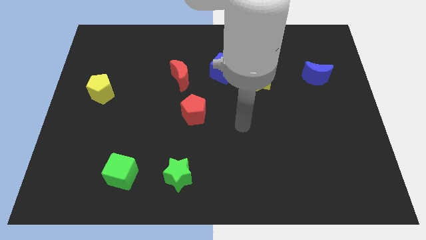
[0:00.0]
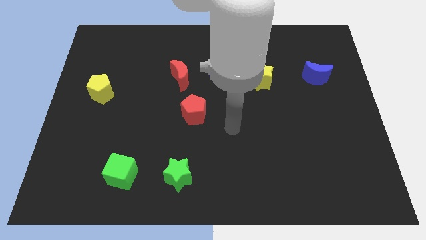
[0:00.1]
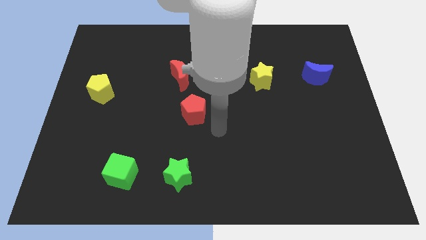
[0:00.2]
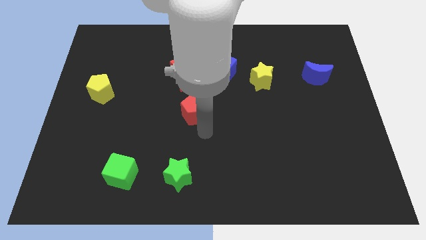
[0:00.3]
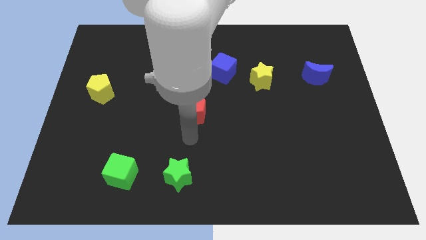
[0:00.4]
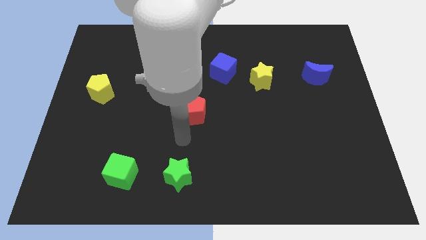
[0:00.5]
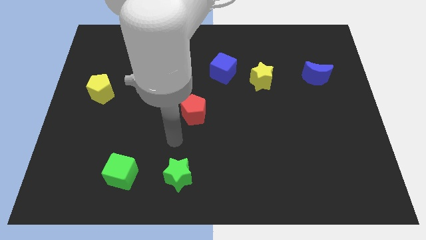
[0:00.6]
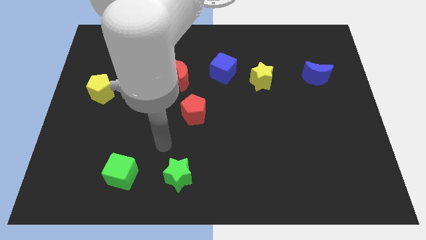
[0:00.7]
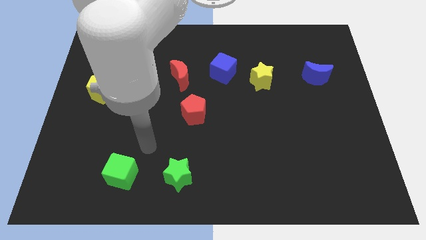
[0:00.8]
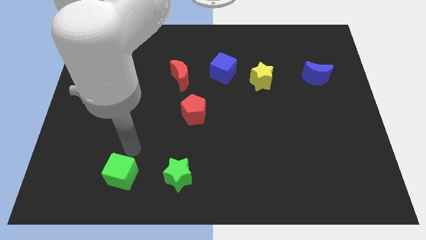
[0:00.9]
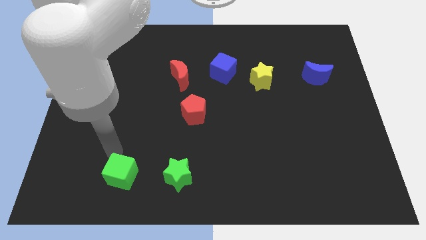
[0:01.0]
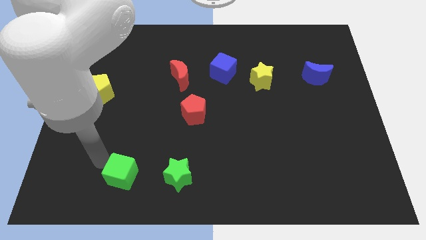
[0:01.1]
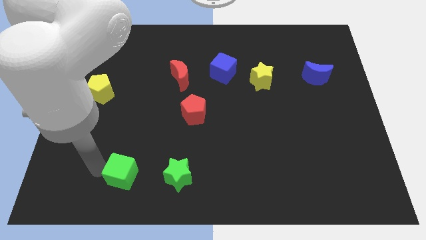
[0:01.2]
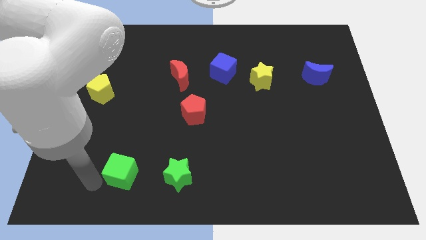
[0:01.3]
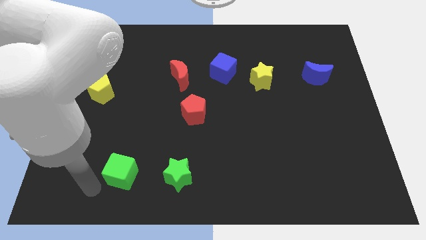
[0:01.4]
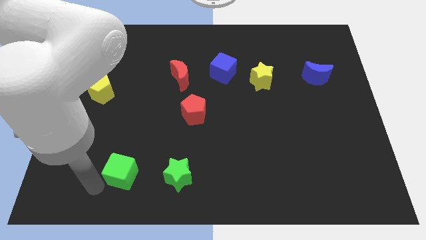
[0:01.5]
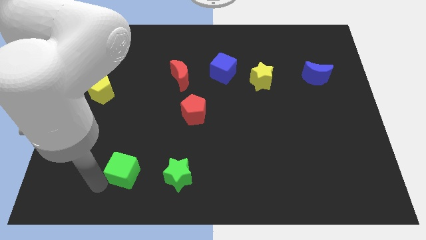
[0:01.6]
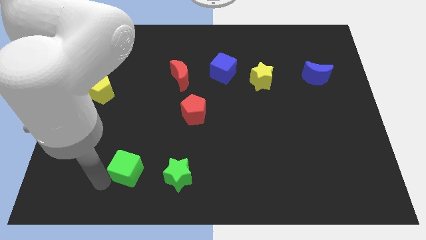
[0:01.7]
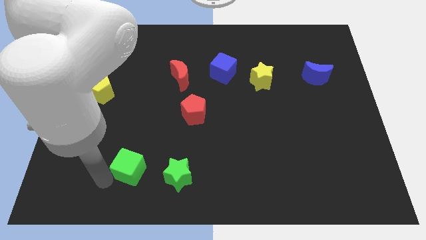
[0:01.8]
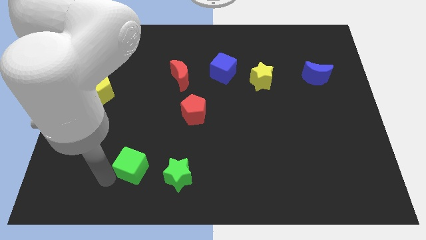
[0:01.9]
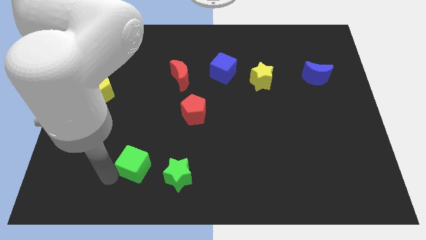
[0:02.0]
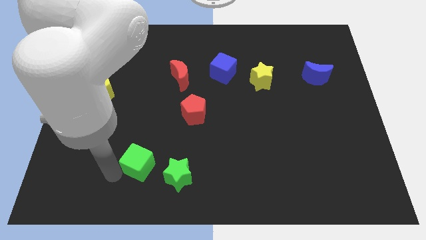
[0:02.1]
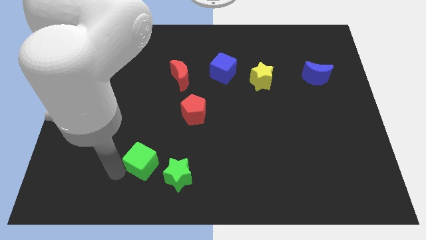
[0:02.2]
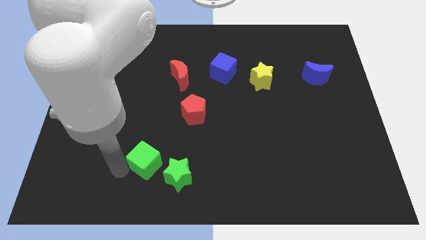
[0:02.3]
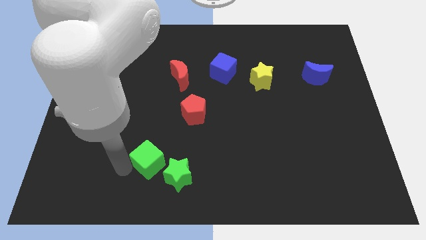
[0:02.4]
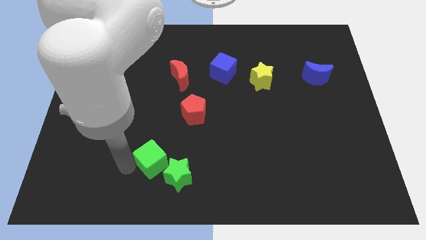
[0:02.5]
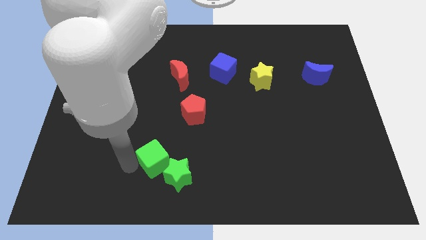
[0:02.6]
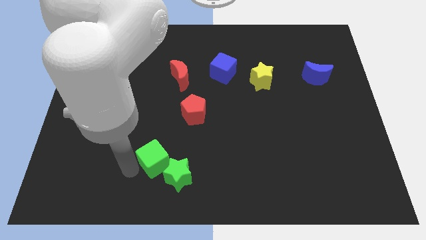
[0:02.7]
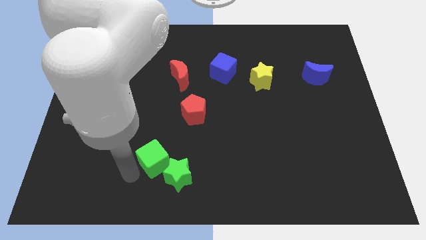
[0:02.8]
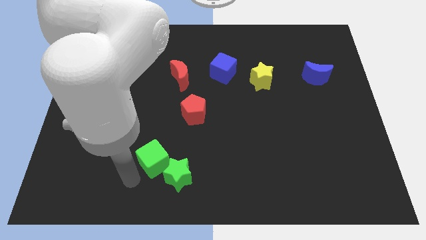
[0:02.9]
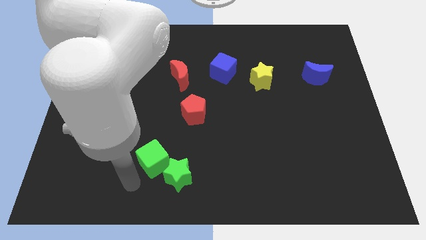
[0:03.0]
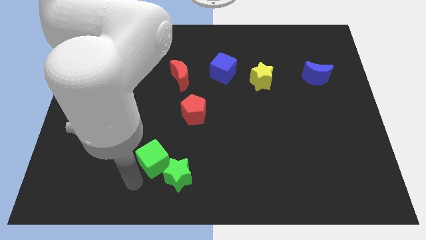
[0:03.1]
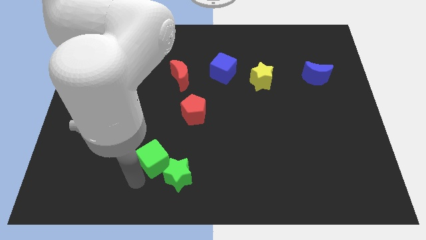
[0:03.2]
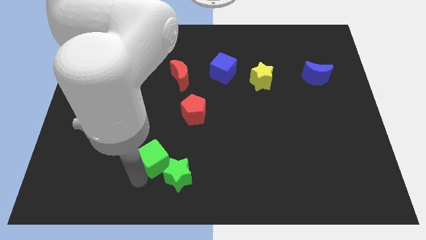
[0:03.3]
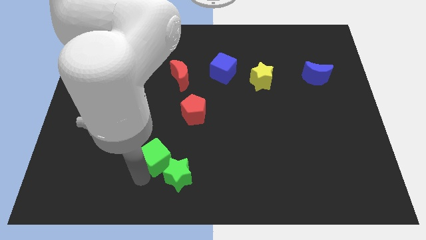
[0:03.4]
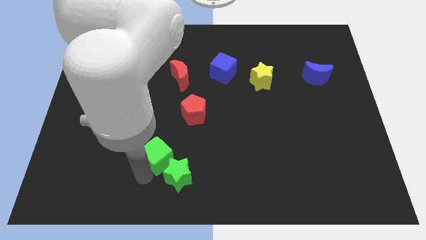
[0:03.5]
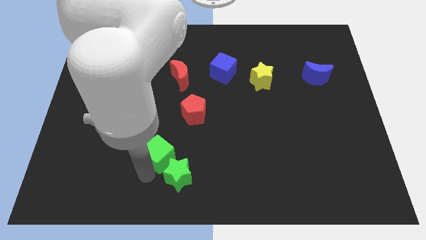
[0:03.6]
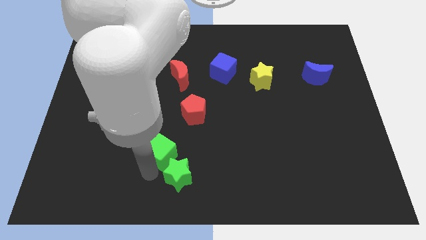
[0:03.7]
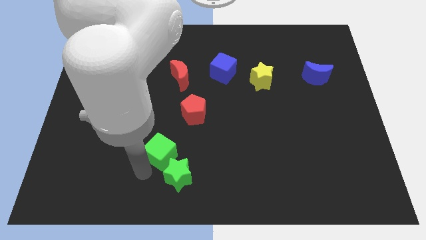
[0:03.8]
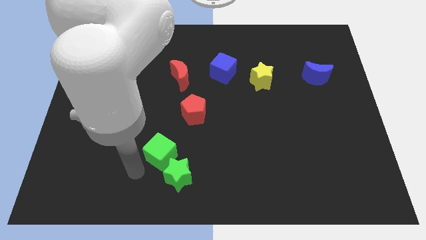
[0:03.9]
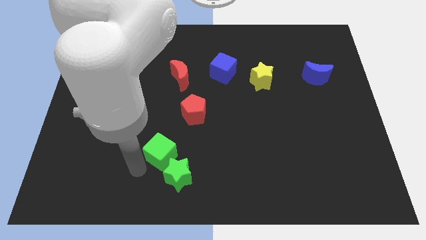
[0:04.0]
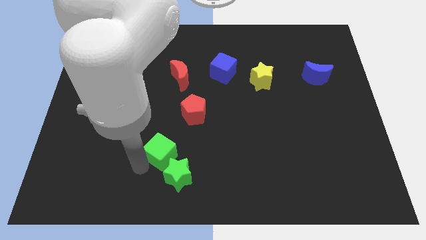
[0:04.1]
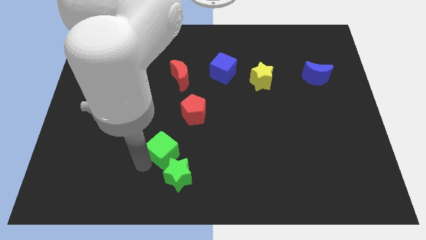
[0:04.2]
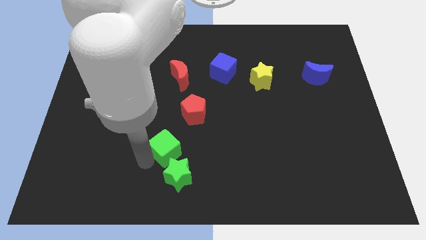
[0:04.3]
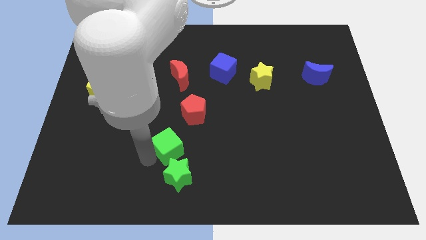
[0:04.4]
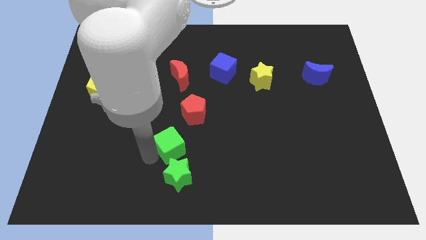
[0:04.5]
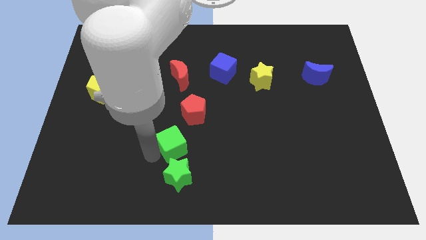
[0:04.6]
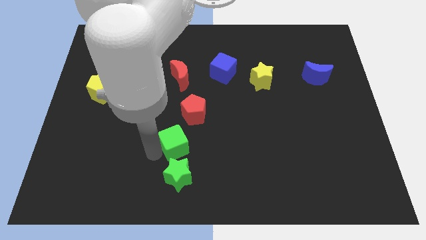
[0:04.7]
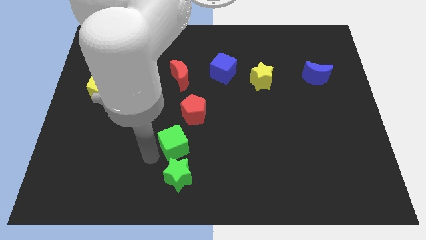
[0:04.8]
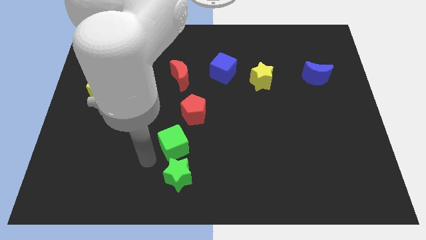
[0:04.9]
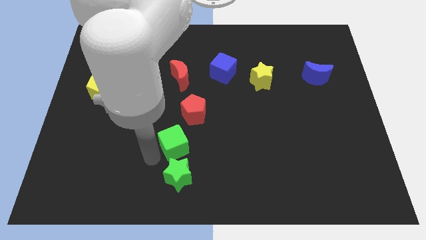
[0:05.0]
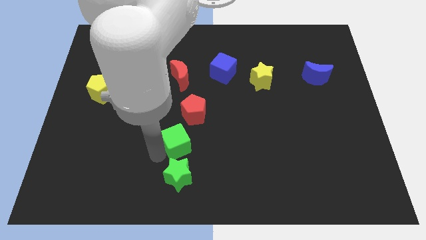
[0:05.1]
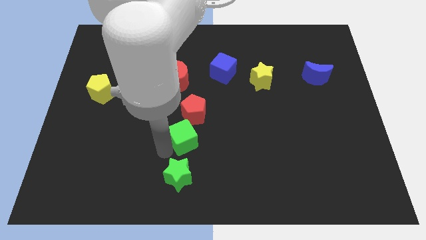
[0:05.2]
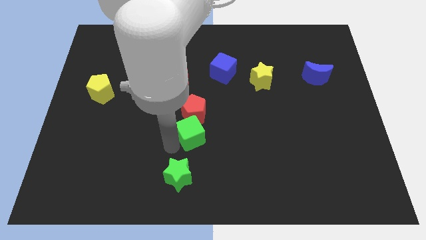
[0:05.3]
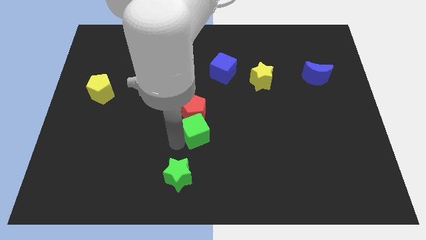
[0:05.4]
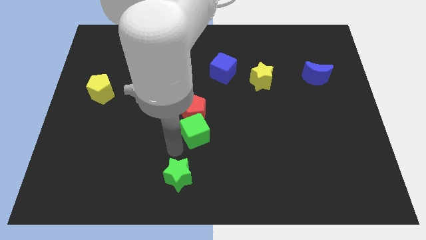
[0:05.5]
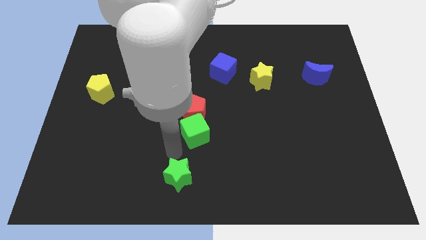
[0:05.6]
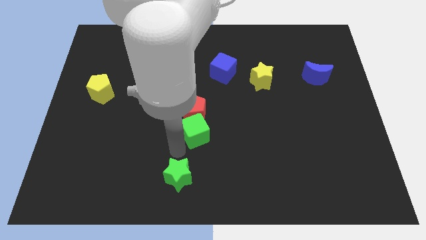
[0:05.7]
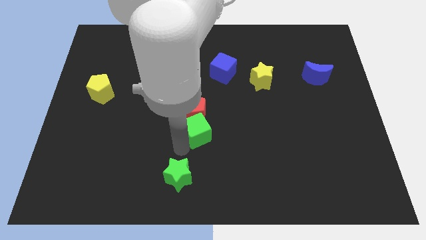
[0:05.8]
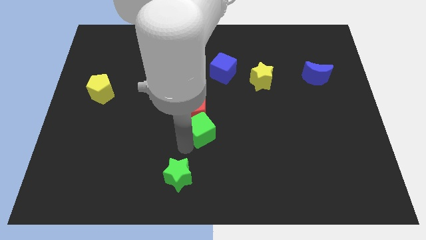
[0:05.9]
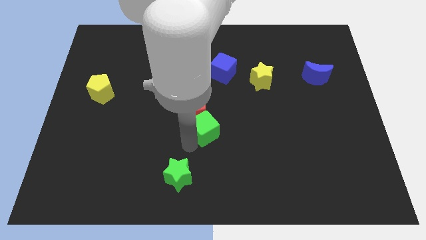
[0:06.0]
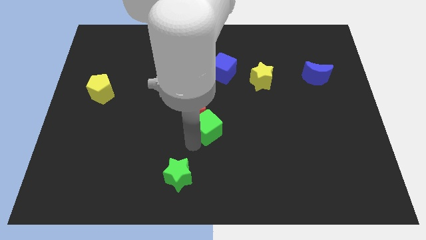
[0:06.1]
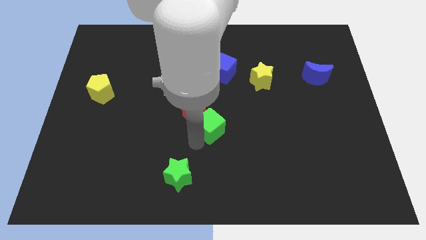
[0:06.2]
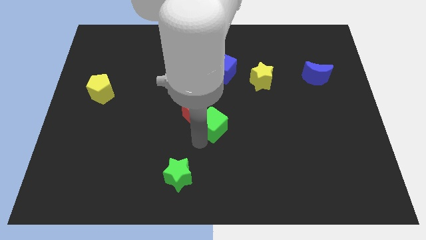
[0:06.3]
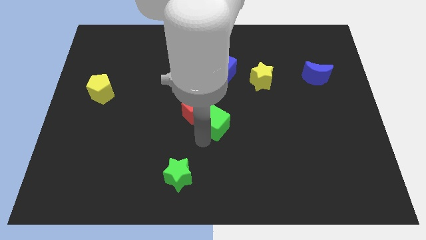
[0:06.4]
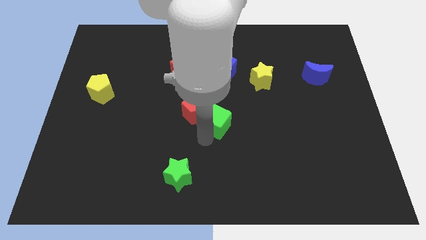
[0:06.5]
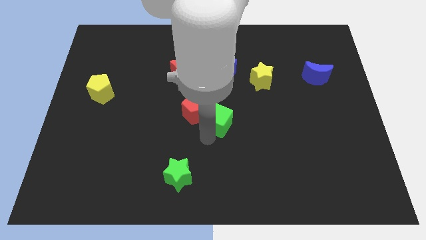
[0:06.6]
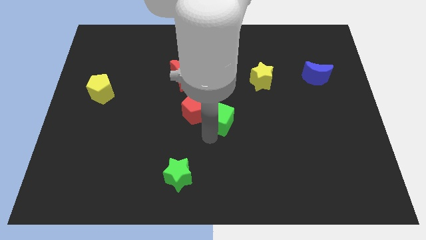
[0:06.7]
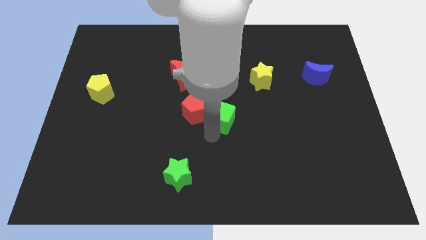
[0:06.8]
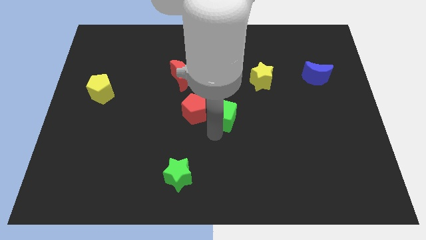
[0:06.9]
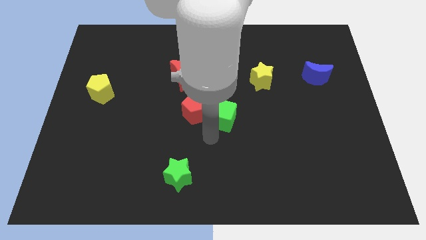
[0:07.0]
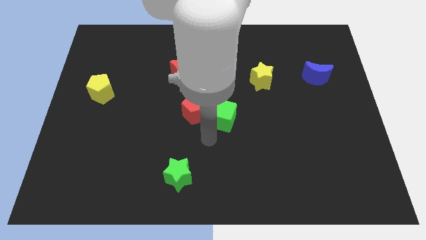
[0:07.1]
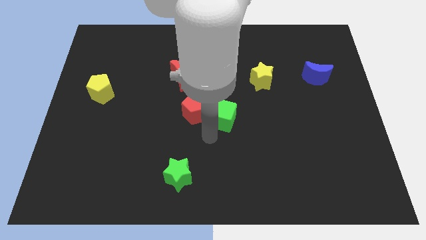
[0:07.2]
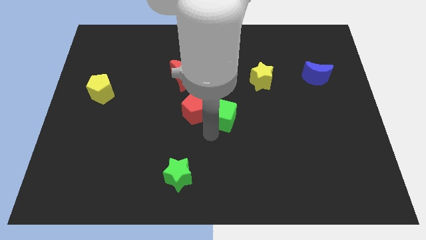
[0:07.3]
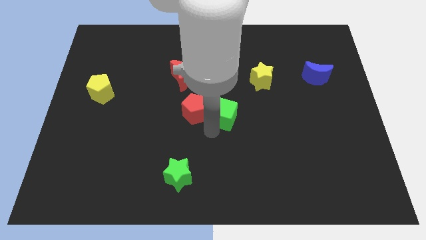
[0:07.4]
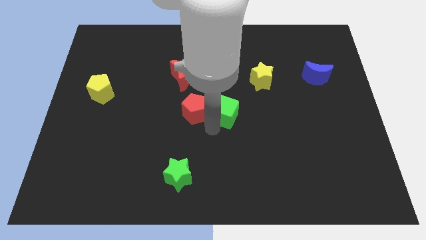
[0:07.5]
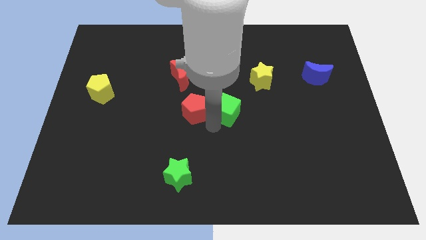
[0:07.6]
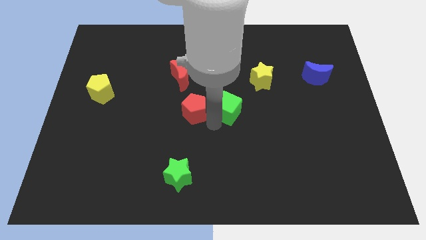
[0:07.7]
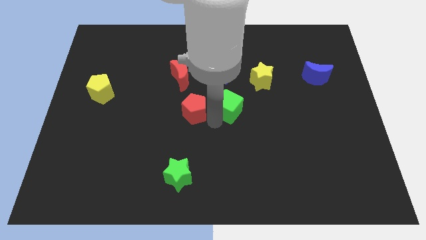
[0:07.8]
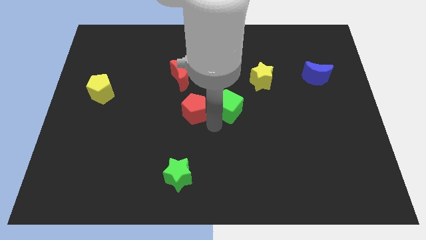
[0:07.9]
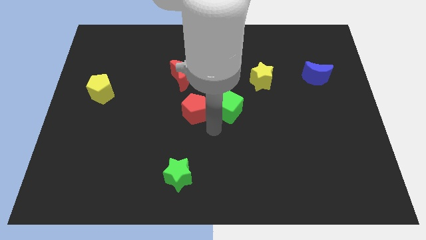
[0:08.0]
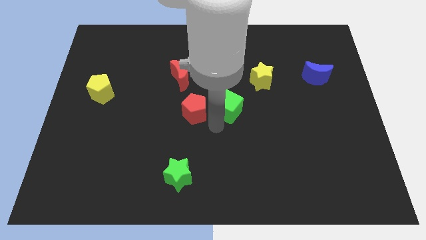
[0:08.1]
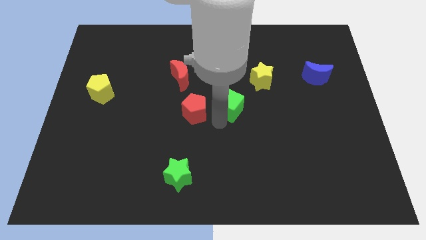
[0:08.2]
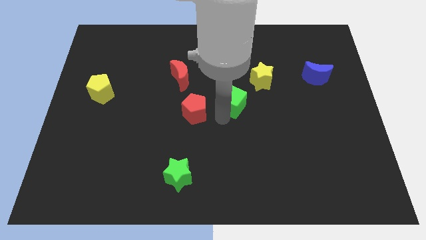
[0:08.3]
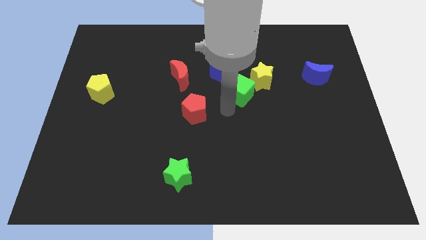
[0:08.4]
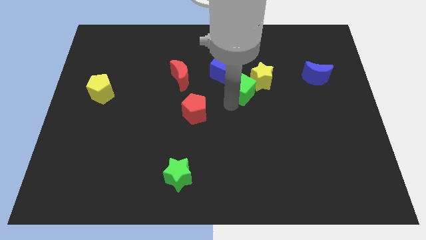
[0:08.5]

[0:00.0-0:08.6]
move the green cube close to the yellow star
